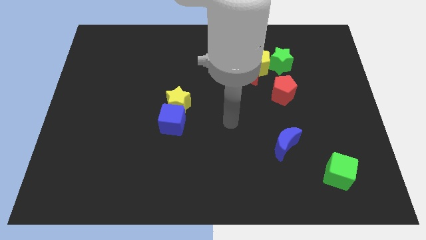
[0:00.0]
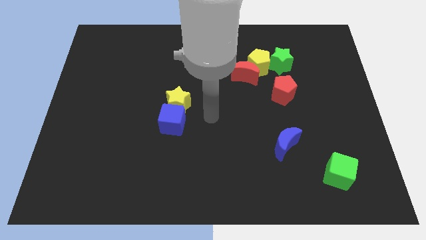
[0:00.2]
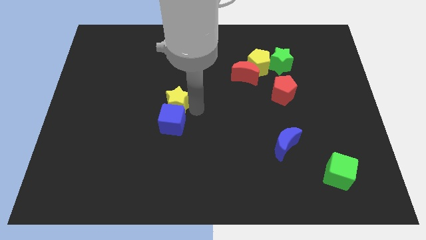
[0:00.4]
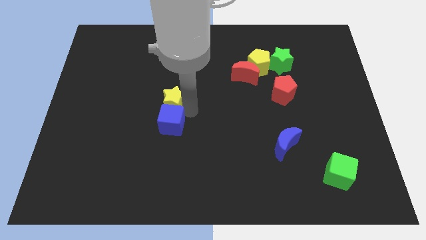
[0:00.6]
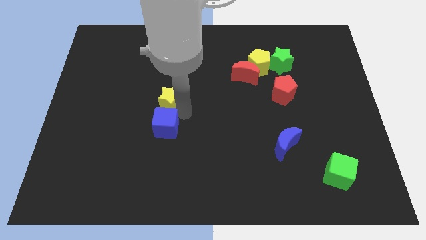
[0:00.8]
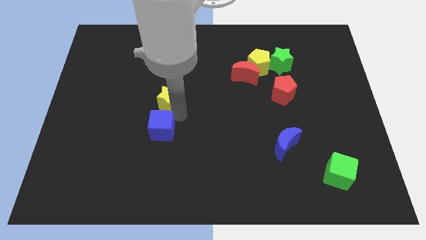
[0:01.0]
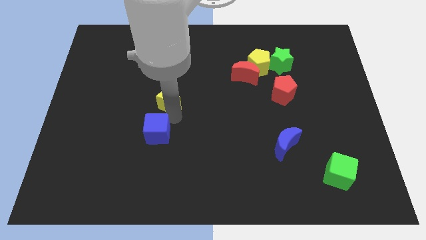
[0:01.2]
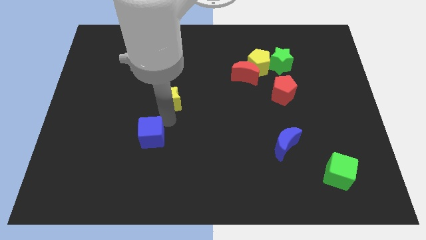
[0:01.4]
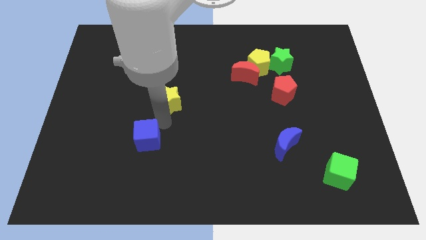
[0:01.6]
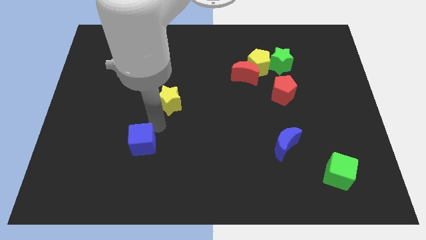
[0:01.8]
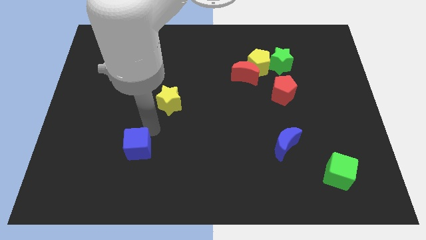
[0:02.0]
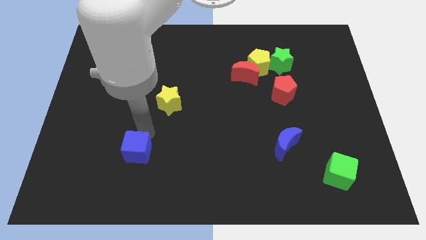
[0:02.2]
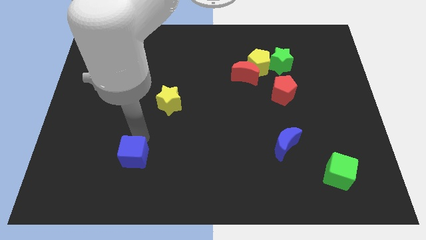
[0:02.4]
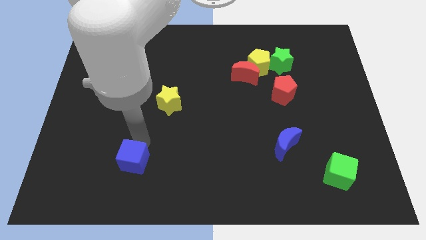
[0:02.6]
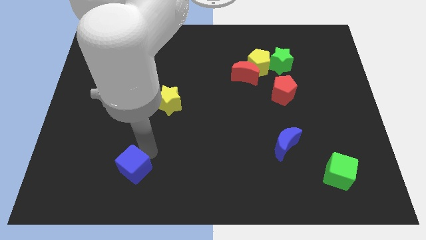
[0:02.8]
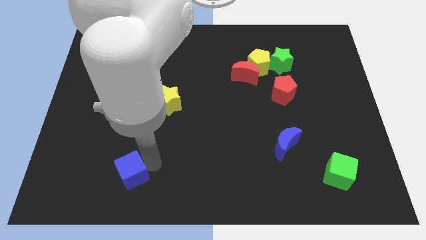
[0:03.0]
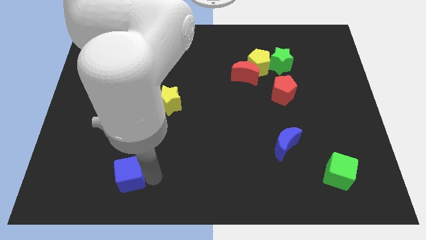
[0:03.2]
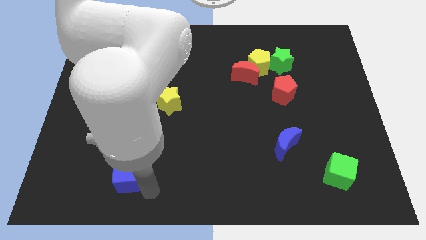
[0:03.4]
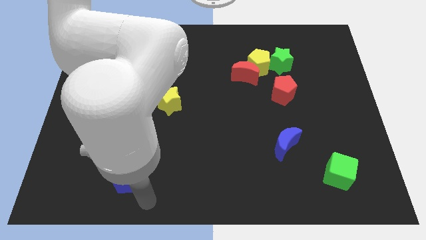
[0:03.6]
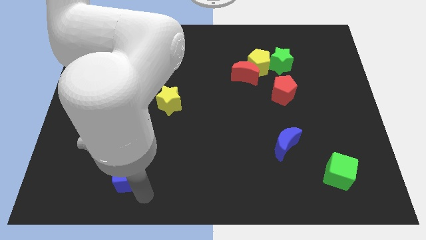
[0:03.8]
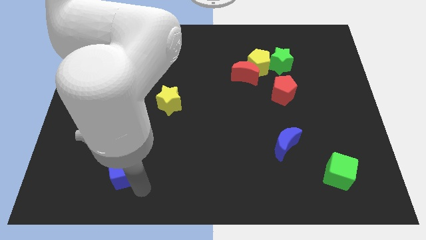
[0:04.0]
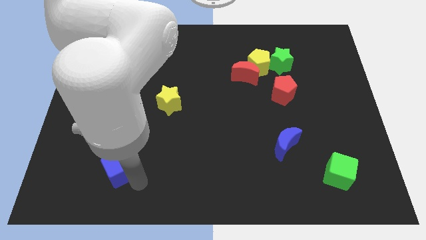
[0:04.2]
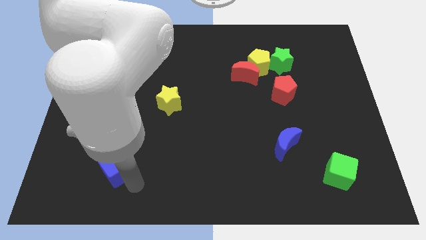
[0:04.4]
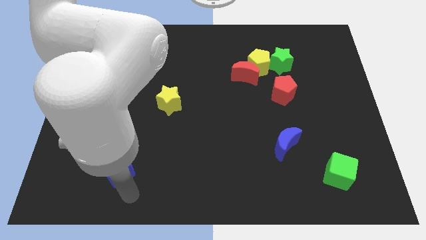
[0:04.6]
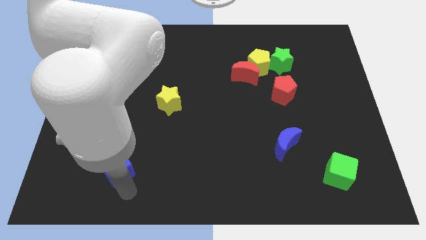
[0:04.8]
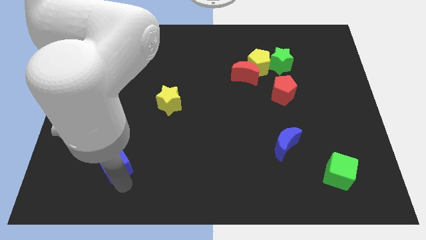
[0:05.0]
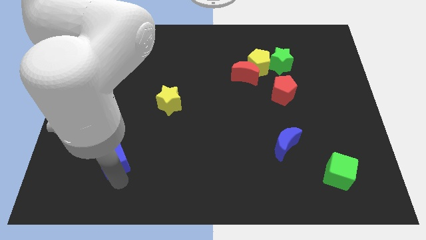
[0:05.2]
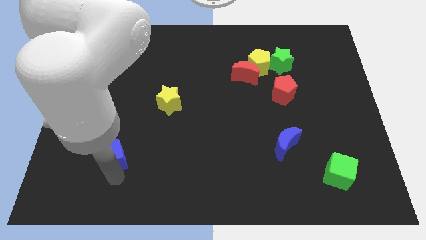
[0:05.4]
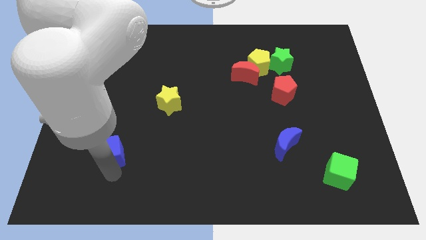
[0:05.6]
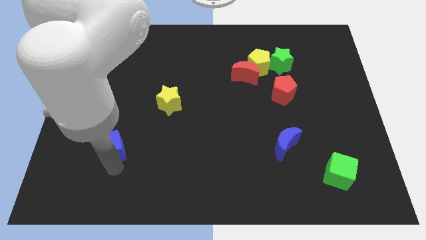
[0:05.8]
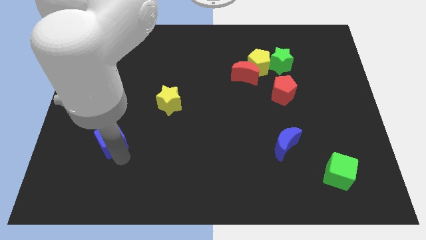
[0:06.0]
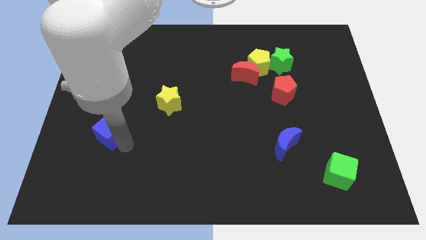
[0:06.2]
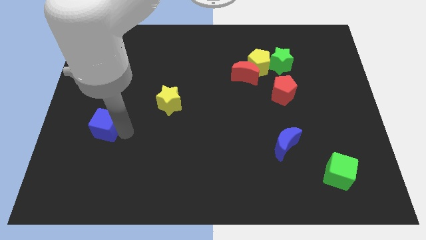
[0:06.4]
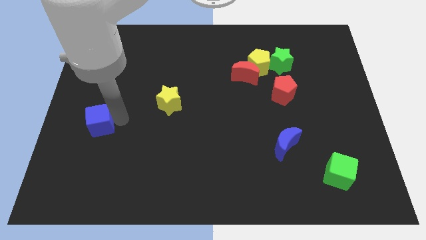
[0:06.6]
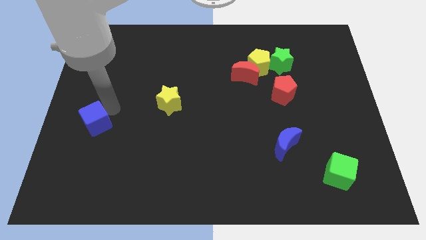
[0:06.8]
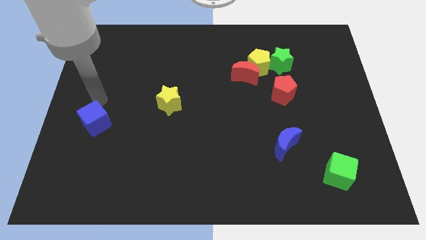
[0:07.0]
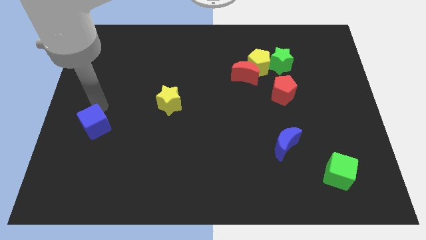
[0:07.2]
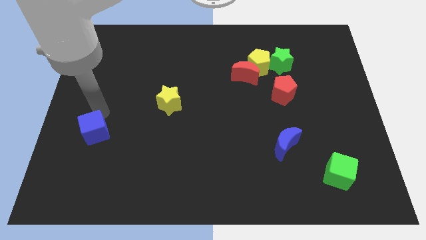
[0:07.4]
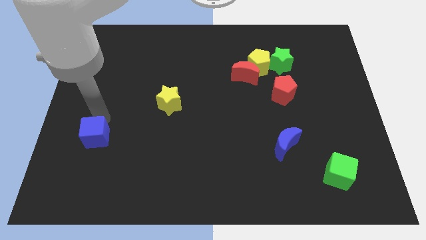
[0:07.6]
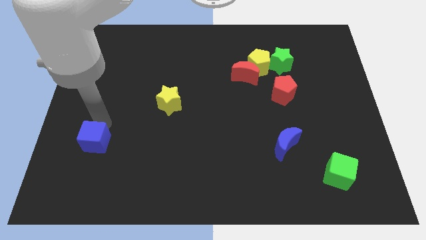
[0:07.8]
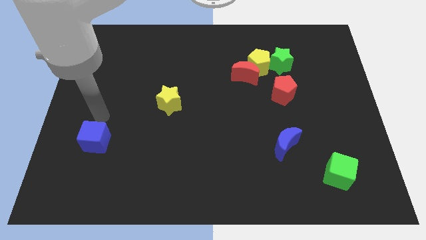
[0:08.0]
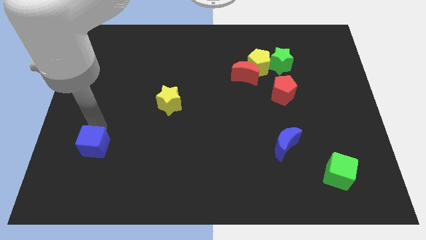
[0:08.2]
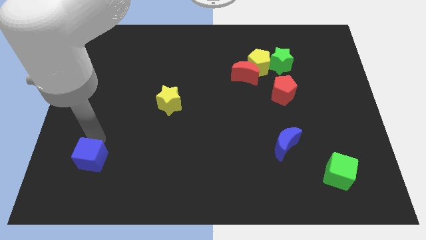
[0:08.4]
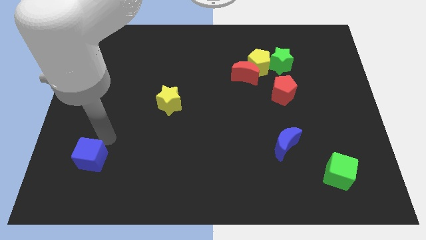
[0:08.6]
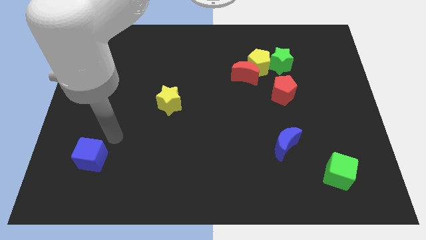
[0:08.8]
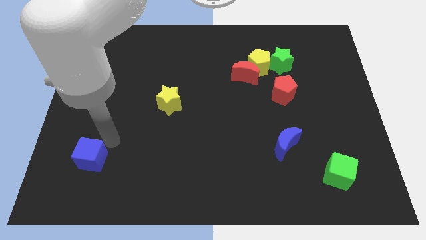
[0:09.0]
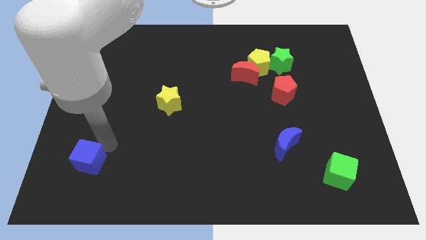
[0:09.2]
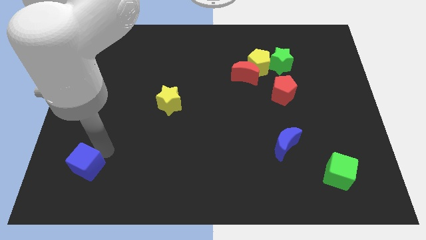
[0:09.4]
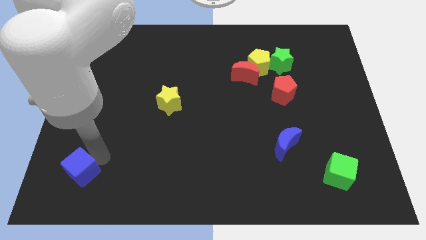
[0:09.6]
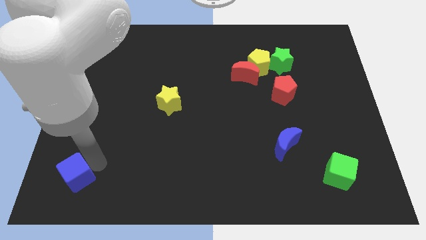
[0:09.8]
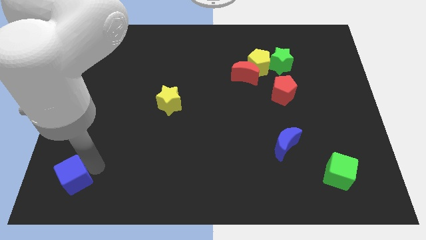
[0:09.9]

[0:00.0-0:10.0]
move the blue cube to the lower left corner

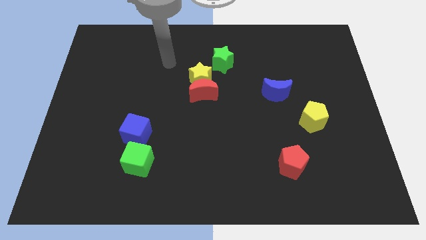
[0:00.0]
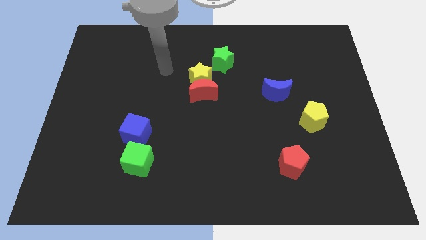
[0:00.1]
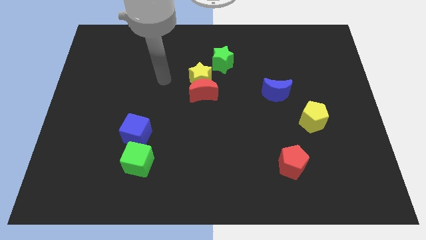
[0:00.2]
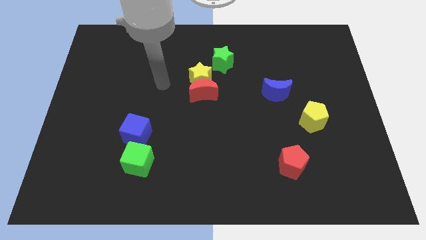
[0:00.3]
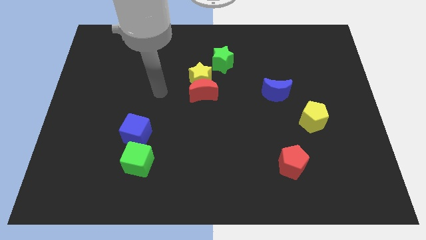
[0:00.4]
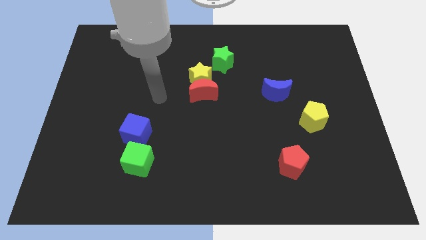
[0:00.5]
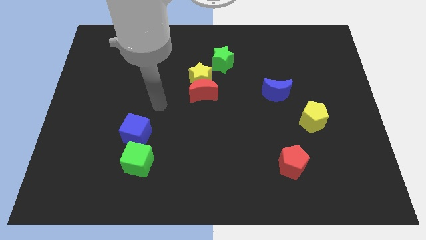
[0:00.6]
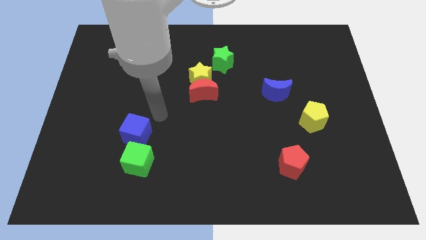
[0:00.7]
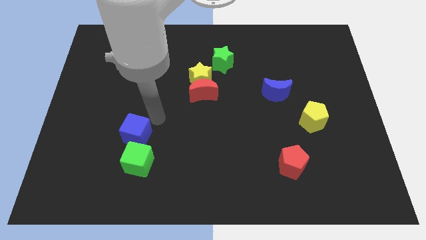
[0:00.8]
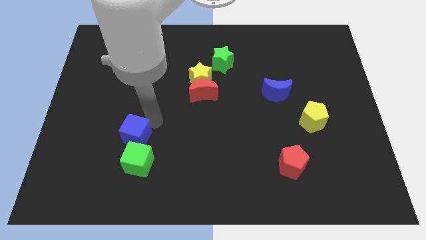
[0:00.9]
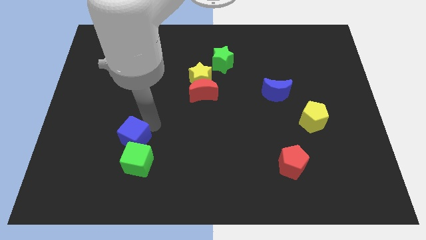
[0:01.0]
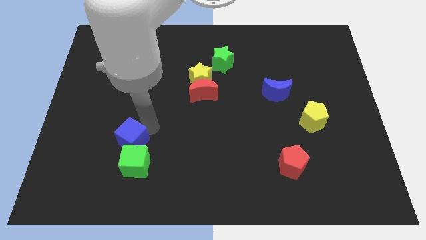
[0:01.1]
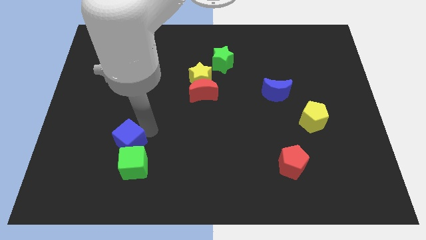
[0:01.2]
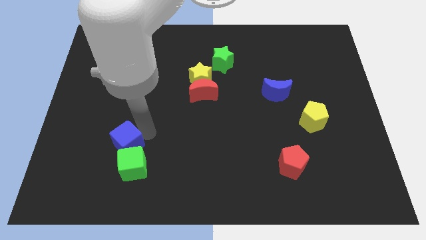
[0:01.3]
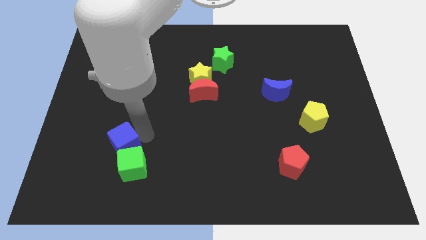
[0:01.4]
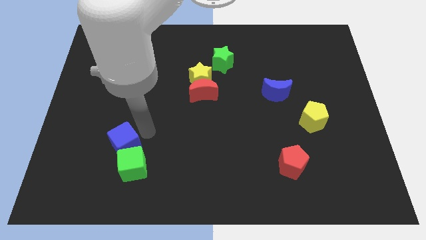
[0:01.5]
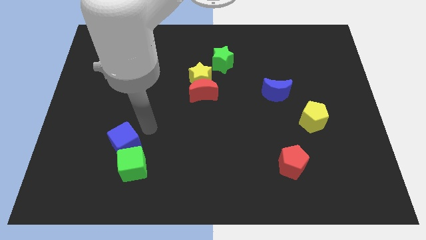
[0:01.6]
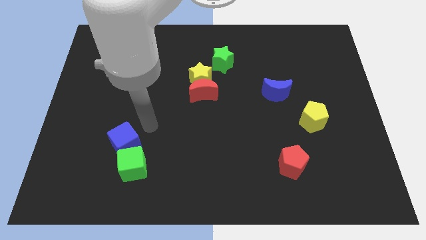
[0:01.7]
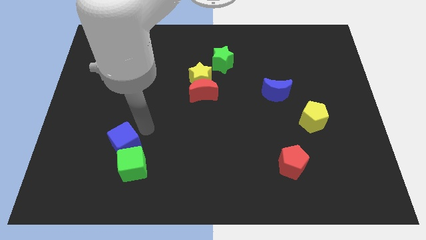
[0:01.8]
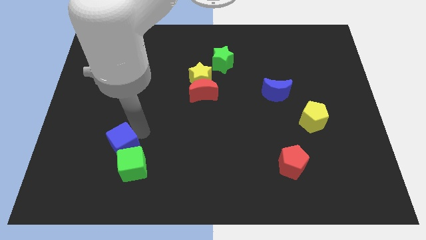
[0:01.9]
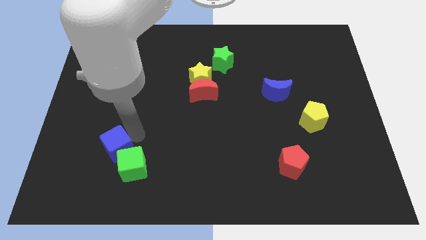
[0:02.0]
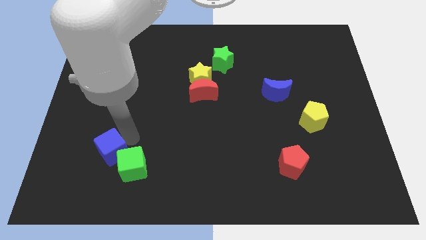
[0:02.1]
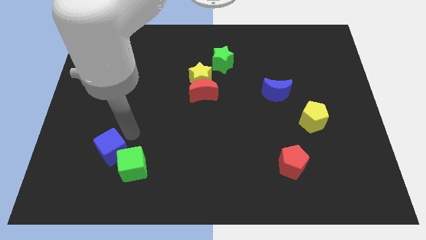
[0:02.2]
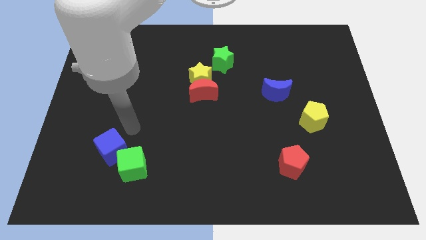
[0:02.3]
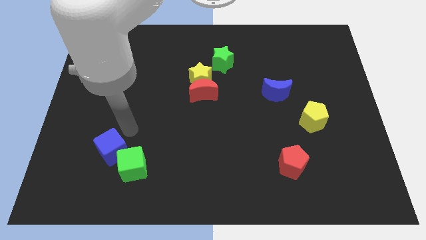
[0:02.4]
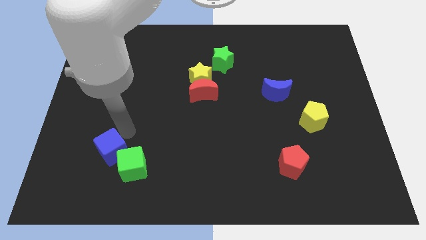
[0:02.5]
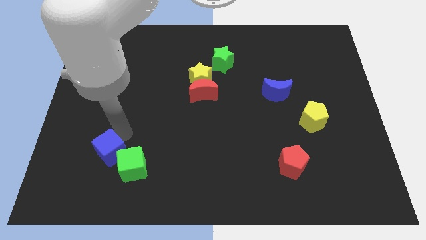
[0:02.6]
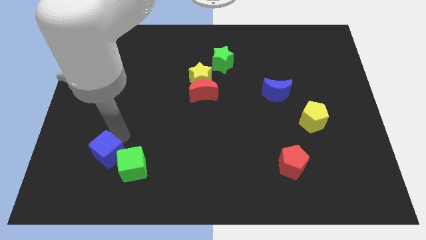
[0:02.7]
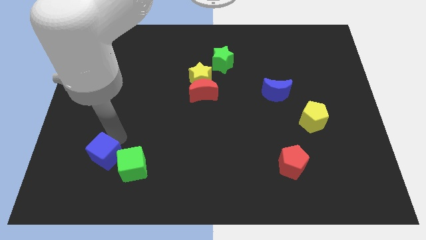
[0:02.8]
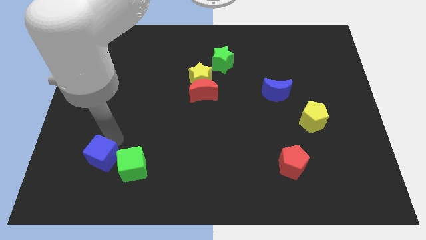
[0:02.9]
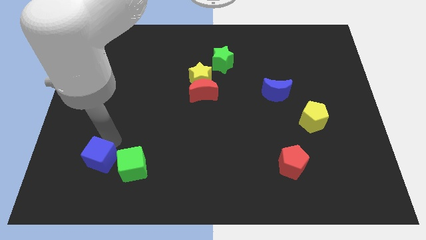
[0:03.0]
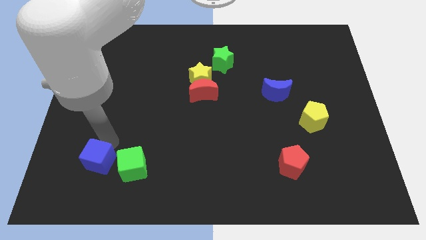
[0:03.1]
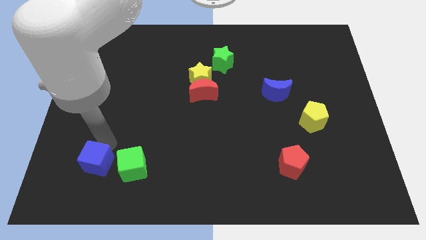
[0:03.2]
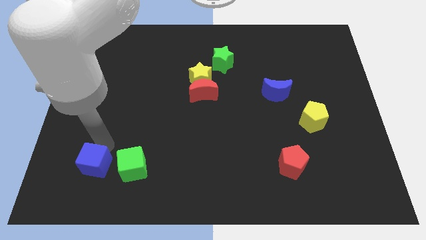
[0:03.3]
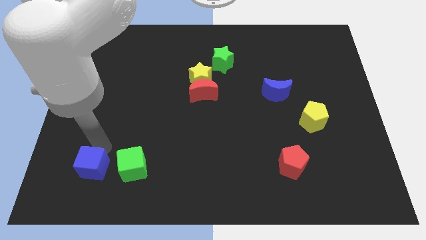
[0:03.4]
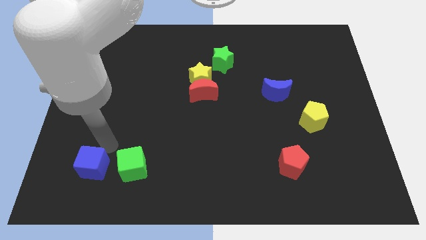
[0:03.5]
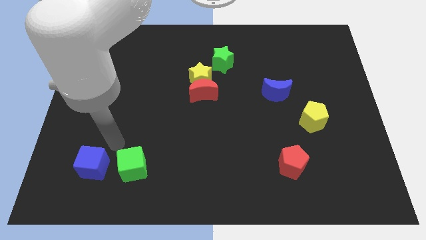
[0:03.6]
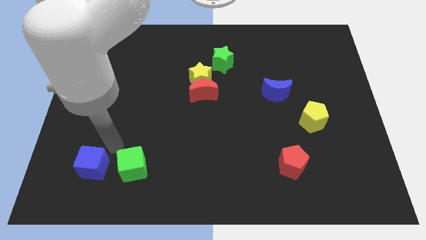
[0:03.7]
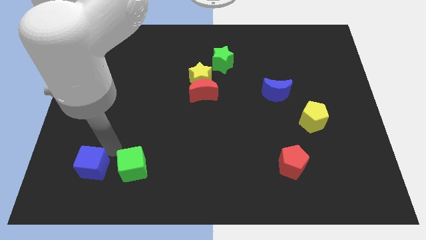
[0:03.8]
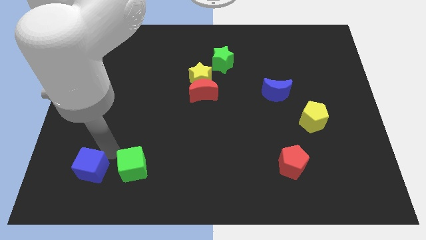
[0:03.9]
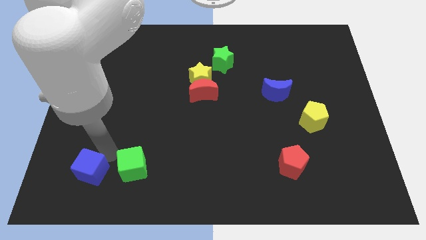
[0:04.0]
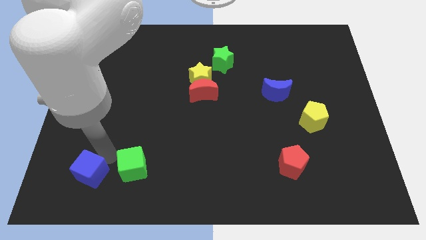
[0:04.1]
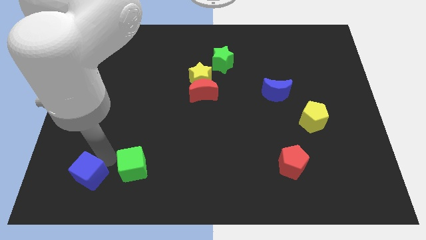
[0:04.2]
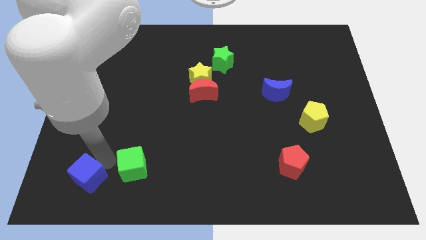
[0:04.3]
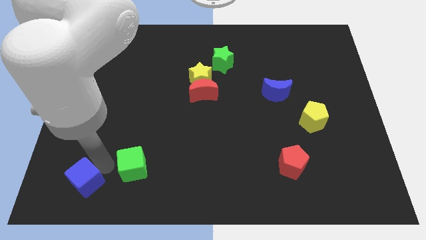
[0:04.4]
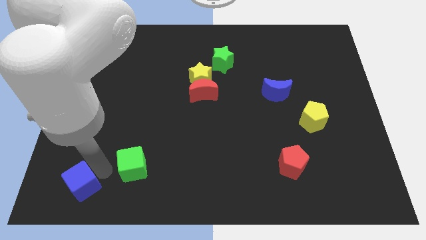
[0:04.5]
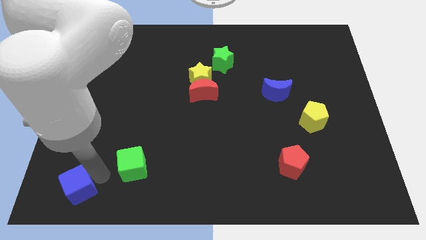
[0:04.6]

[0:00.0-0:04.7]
put the blue cube to the bottom left of the board
